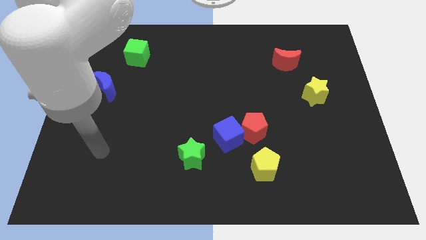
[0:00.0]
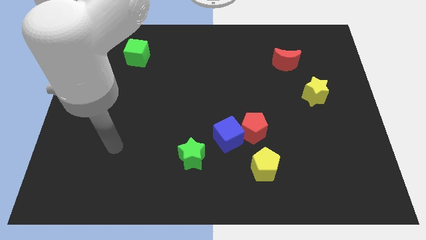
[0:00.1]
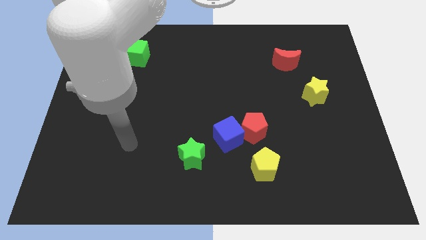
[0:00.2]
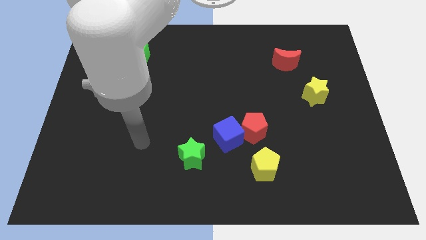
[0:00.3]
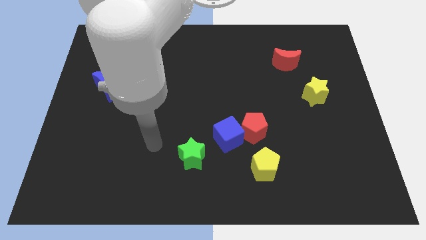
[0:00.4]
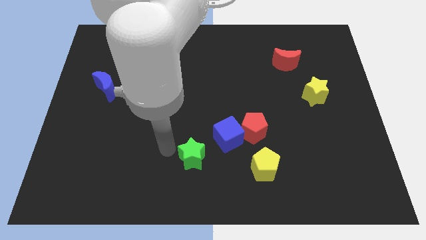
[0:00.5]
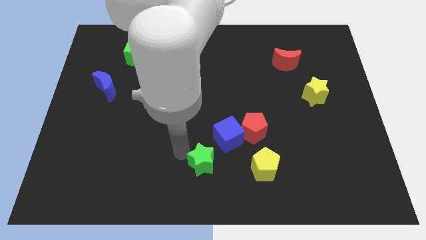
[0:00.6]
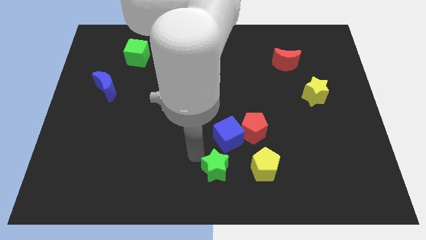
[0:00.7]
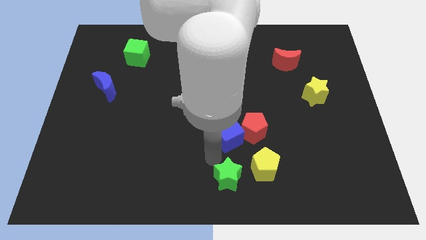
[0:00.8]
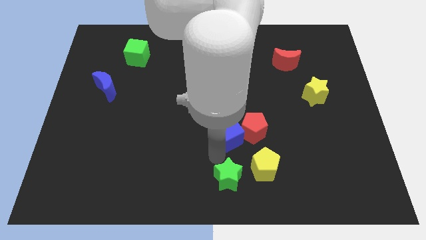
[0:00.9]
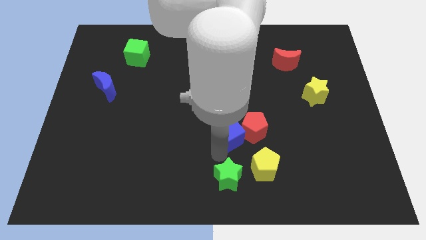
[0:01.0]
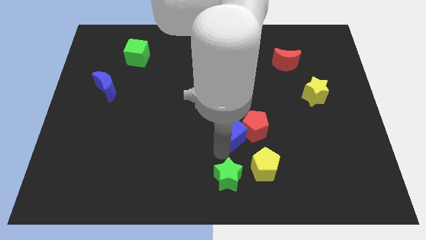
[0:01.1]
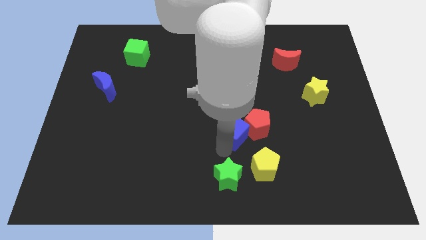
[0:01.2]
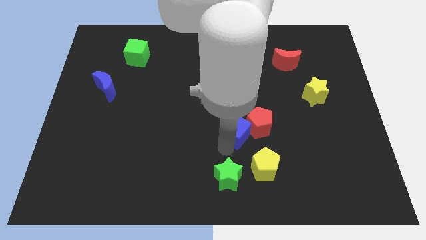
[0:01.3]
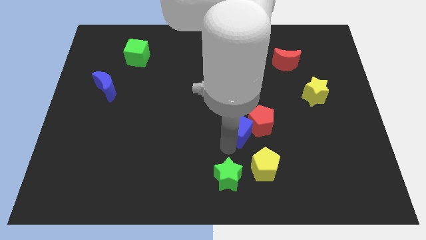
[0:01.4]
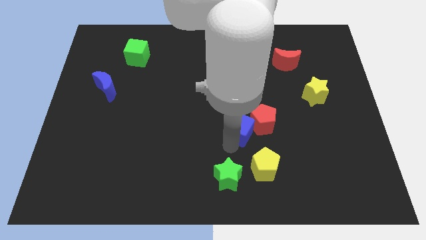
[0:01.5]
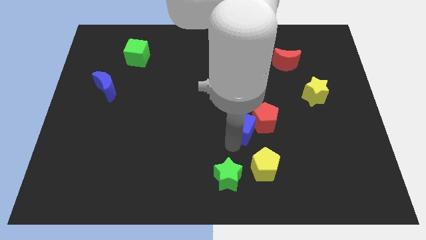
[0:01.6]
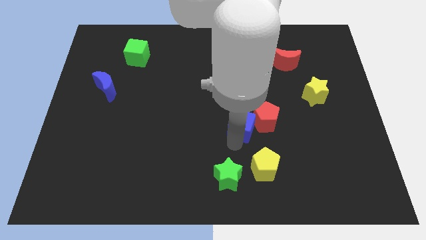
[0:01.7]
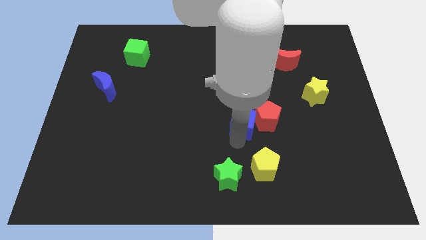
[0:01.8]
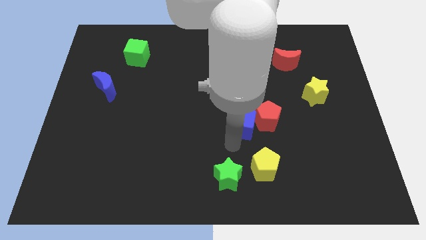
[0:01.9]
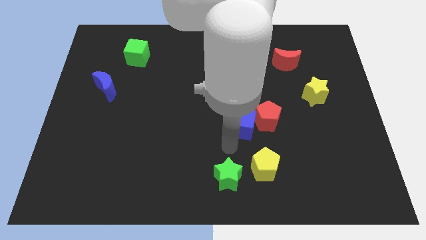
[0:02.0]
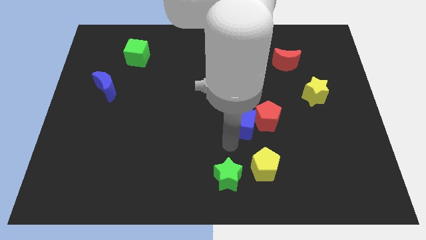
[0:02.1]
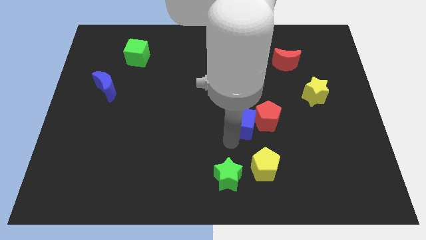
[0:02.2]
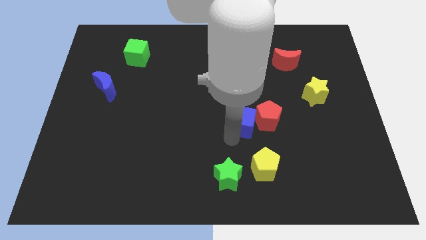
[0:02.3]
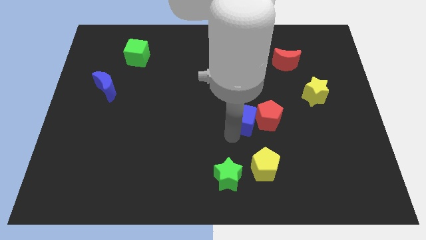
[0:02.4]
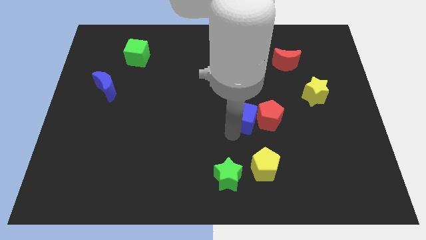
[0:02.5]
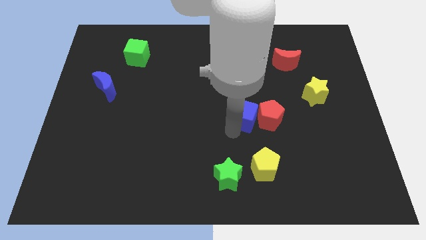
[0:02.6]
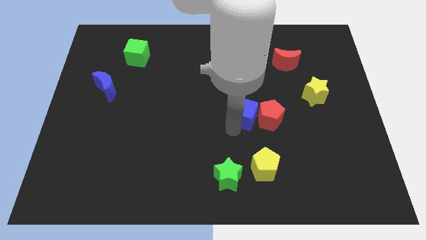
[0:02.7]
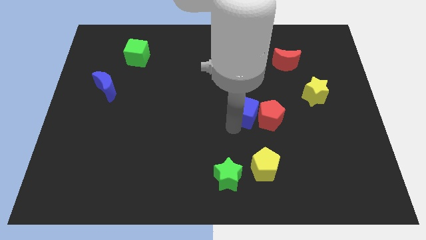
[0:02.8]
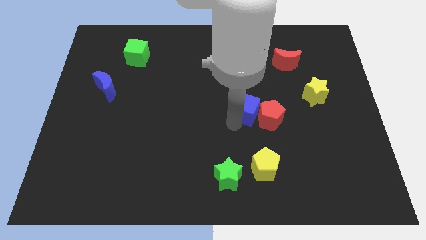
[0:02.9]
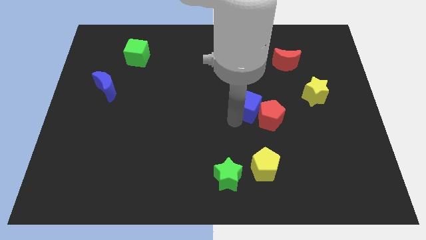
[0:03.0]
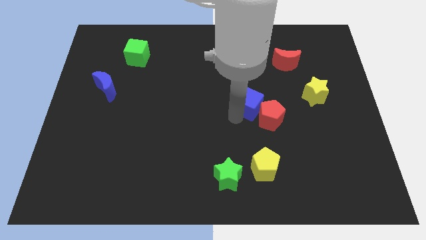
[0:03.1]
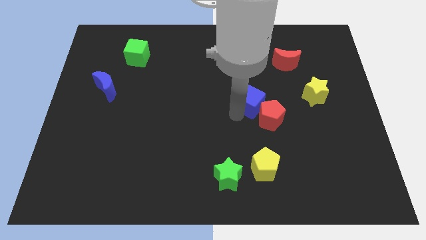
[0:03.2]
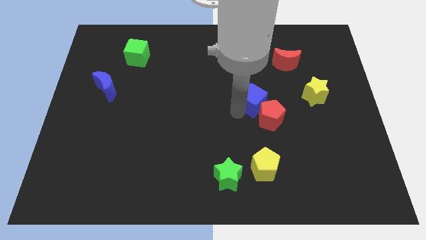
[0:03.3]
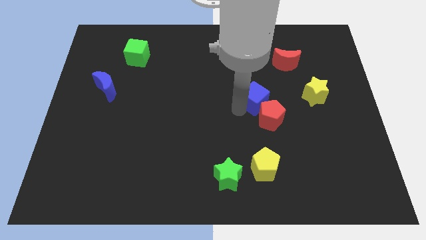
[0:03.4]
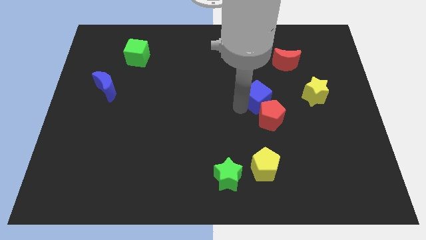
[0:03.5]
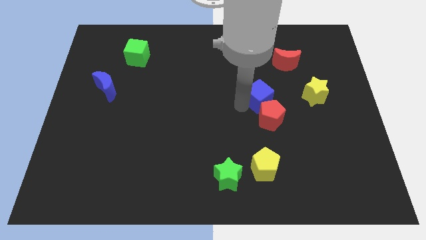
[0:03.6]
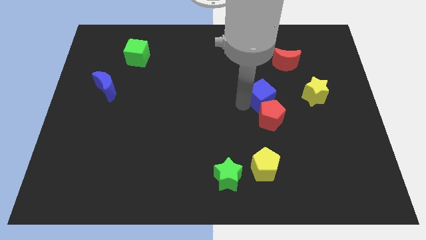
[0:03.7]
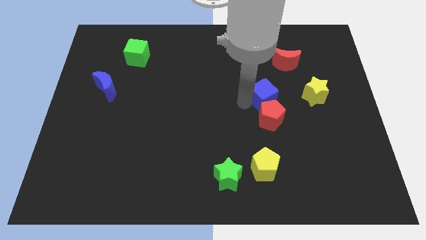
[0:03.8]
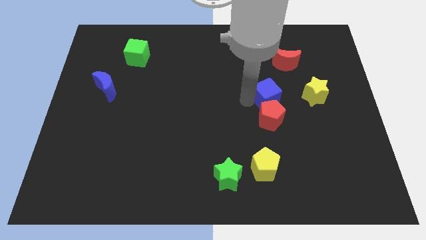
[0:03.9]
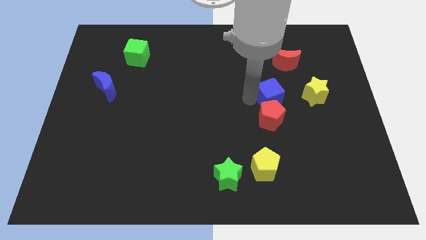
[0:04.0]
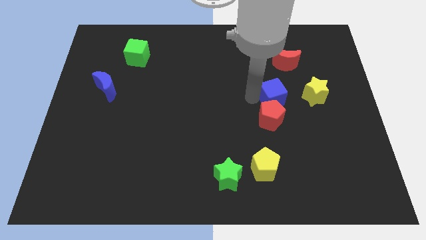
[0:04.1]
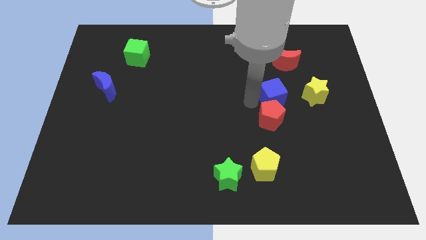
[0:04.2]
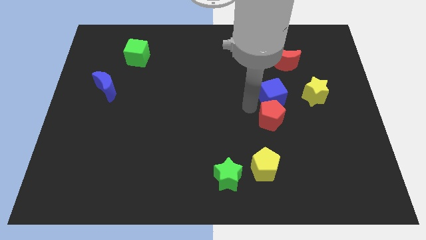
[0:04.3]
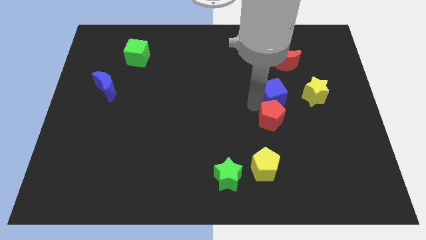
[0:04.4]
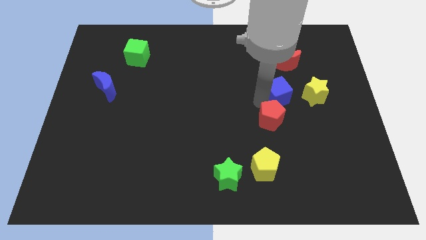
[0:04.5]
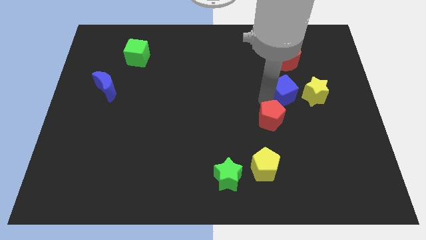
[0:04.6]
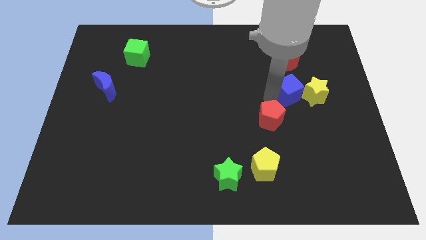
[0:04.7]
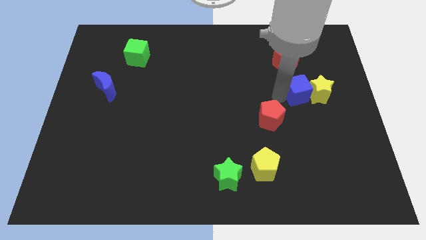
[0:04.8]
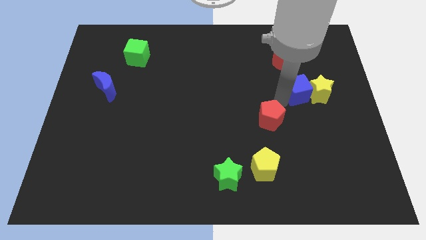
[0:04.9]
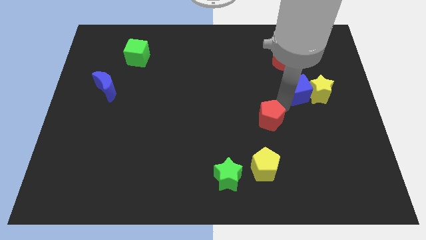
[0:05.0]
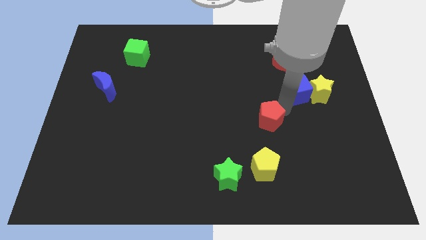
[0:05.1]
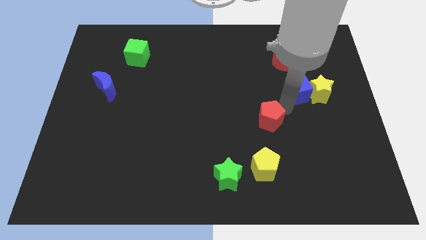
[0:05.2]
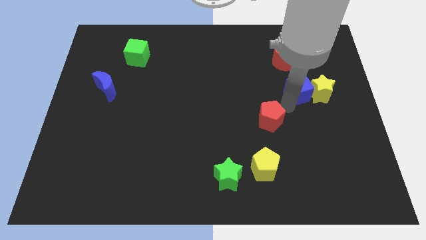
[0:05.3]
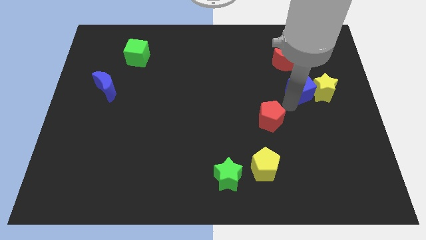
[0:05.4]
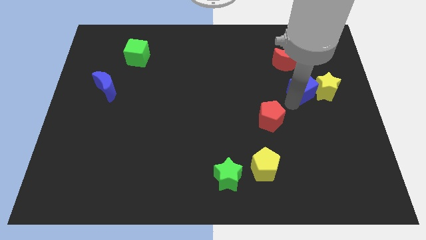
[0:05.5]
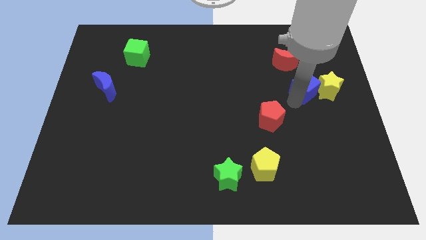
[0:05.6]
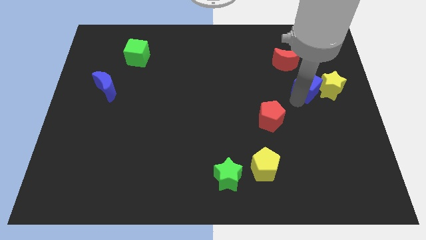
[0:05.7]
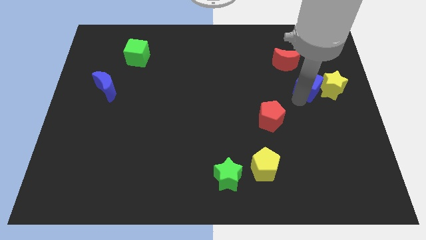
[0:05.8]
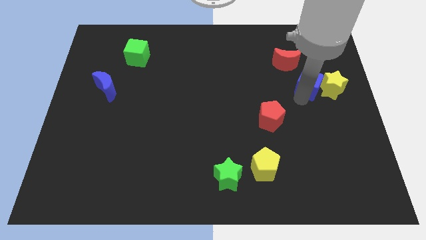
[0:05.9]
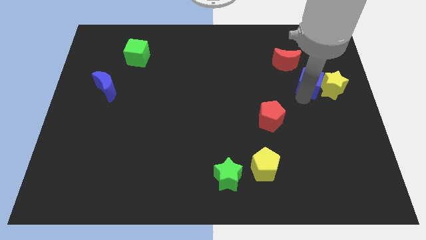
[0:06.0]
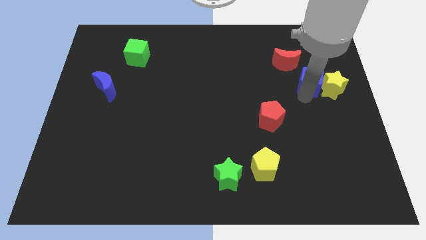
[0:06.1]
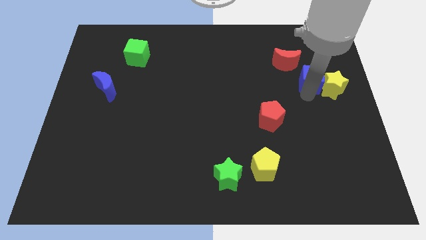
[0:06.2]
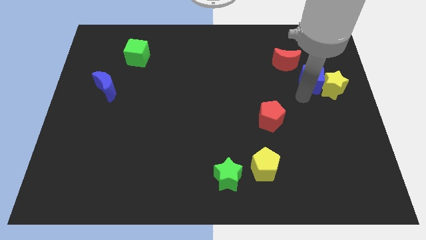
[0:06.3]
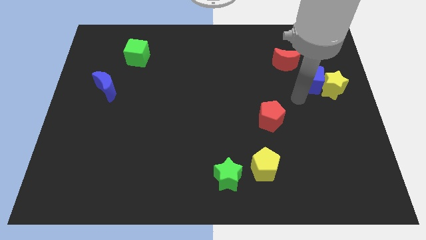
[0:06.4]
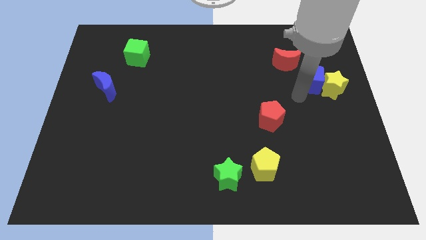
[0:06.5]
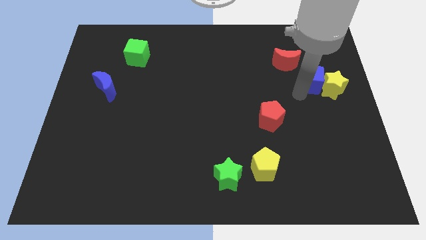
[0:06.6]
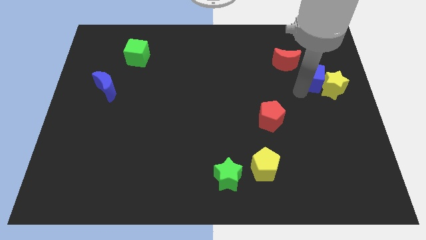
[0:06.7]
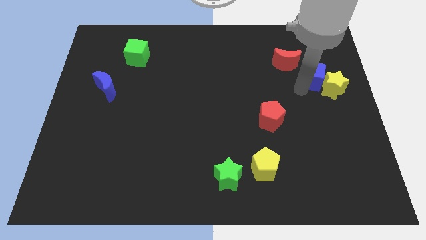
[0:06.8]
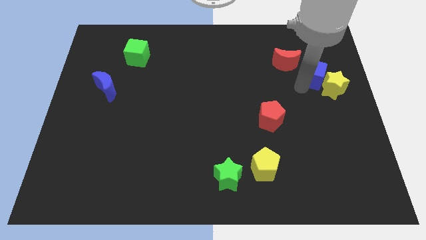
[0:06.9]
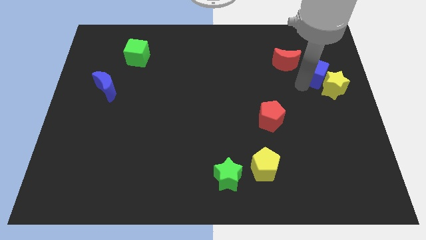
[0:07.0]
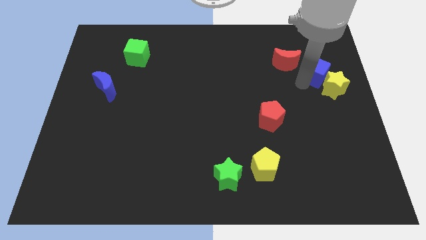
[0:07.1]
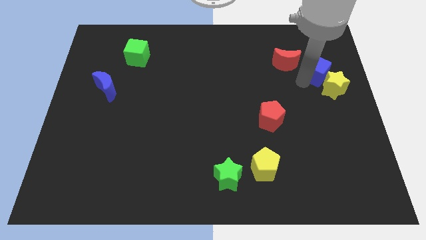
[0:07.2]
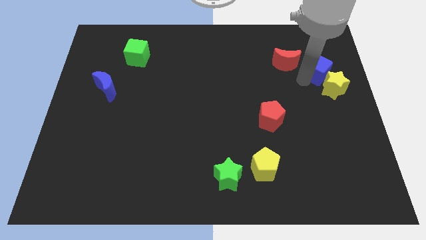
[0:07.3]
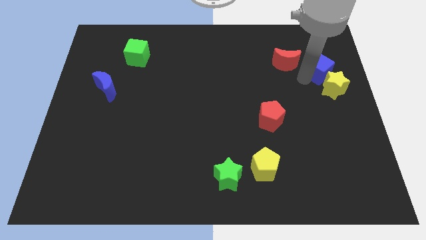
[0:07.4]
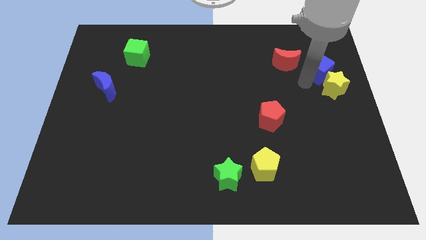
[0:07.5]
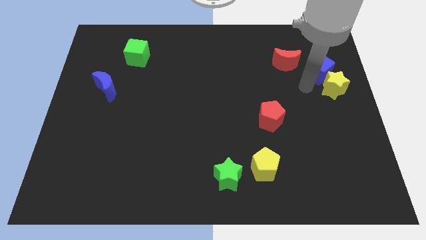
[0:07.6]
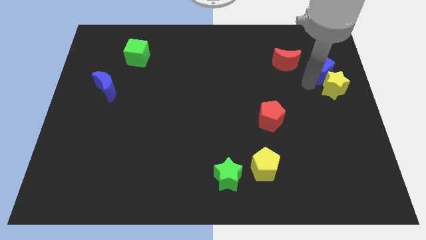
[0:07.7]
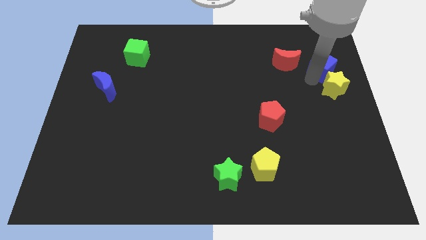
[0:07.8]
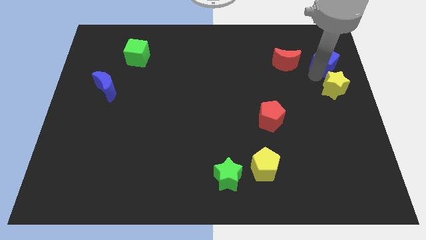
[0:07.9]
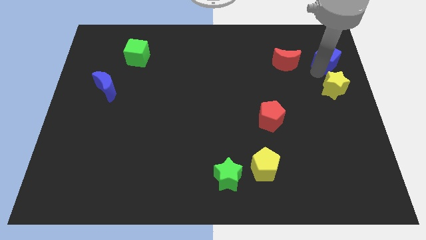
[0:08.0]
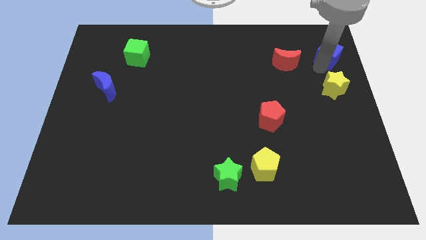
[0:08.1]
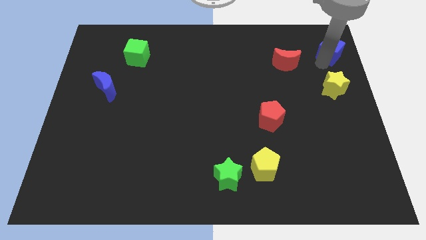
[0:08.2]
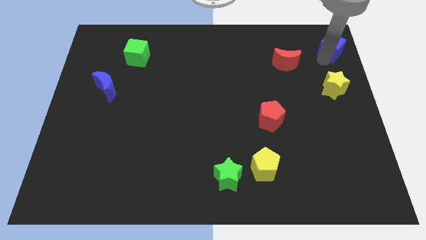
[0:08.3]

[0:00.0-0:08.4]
move the blue cube to the upper right corner
